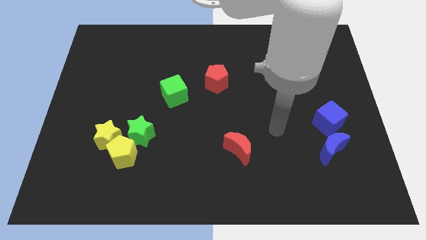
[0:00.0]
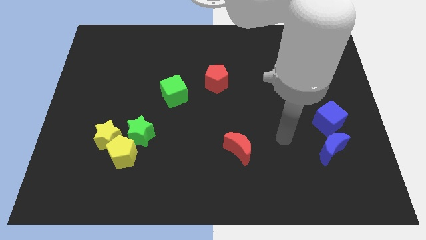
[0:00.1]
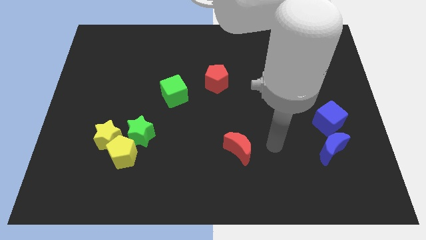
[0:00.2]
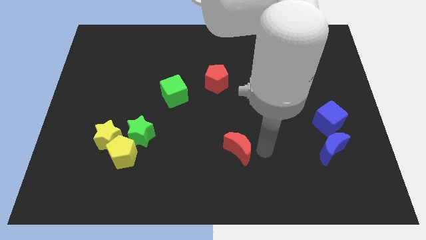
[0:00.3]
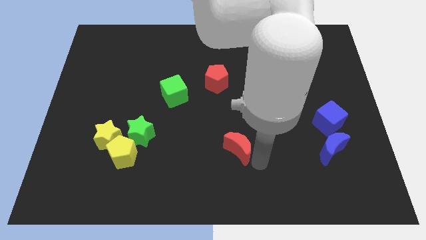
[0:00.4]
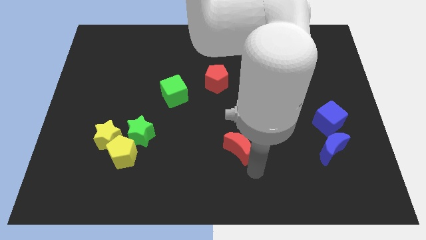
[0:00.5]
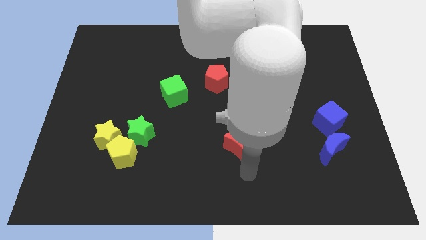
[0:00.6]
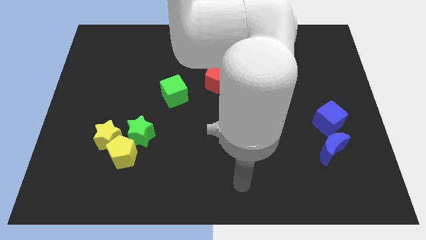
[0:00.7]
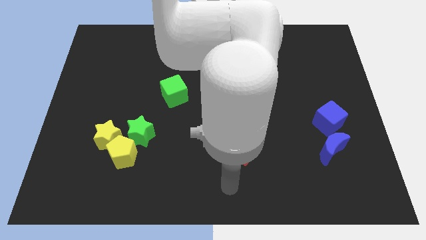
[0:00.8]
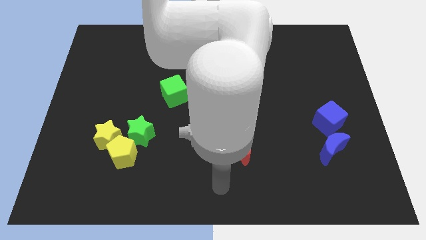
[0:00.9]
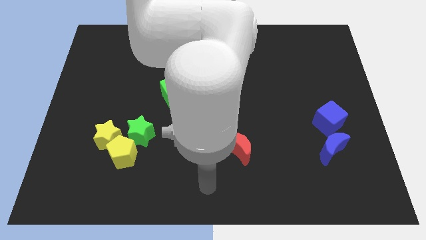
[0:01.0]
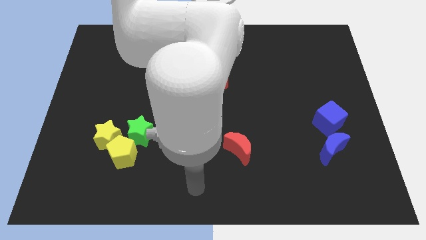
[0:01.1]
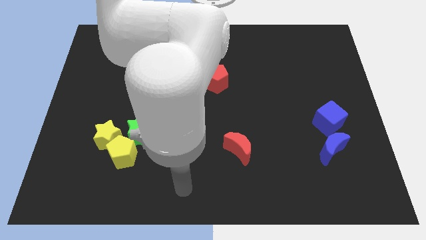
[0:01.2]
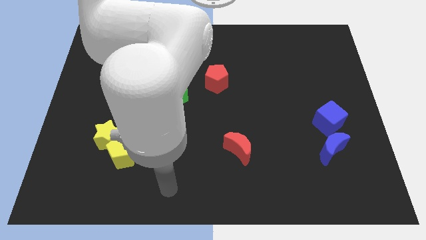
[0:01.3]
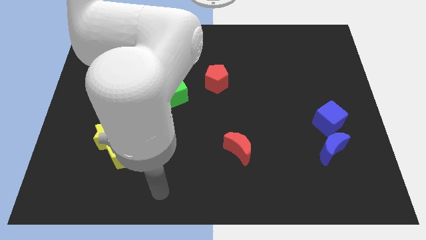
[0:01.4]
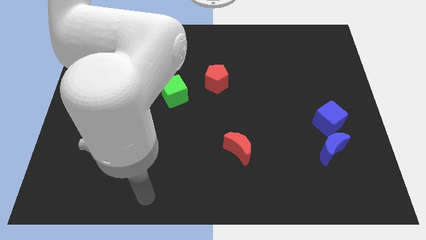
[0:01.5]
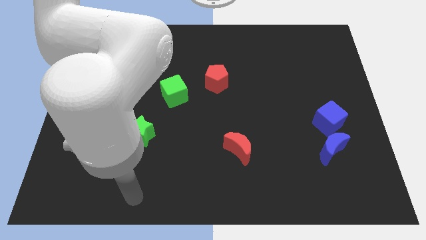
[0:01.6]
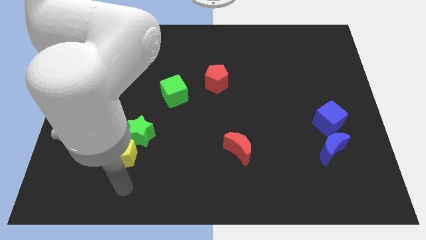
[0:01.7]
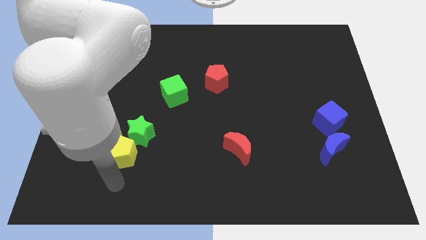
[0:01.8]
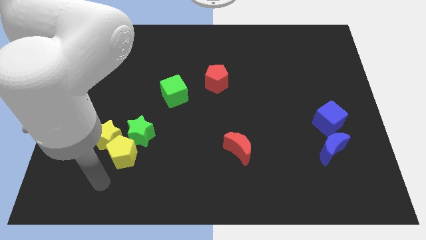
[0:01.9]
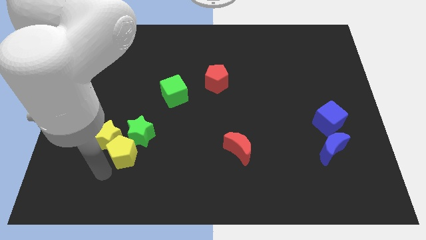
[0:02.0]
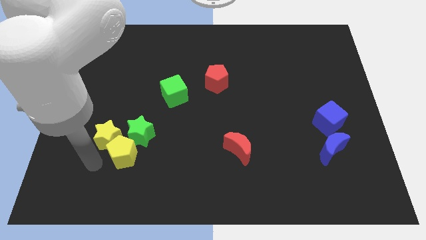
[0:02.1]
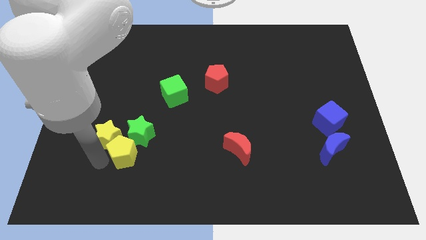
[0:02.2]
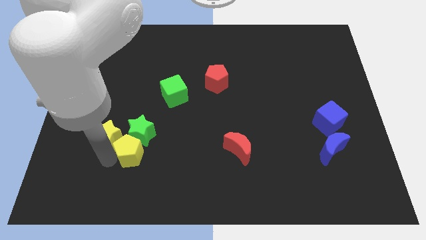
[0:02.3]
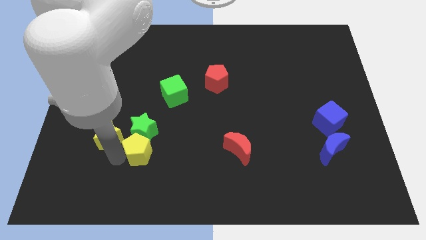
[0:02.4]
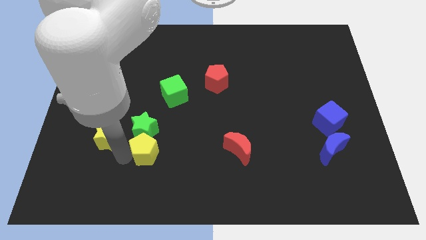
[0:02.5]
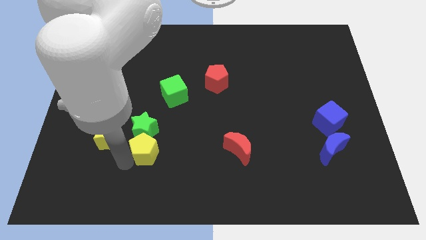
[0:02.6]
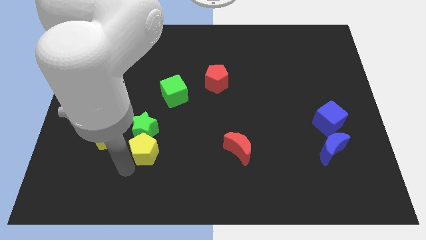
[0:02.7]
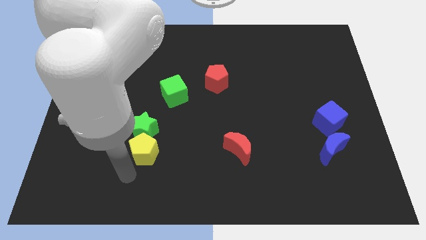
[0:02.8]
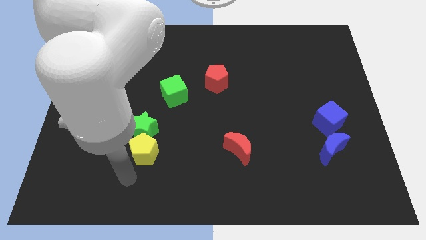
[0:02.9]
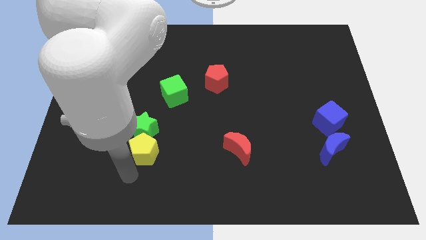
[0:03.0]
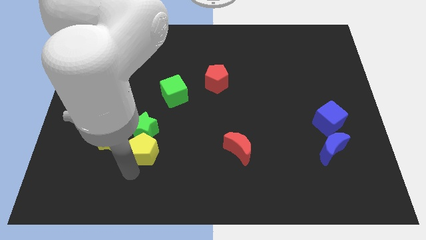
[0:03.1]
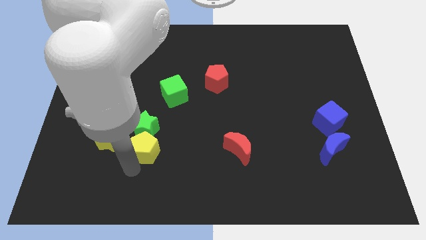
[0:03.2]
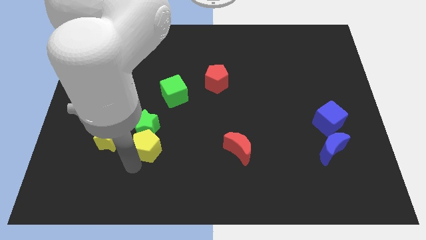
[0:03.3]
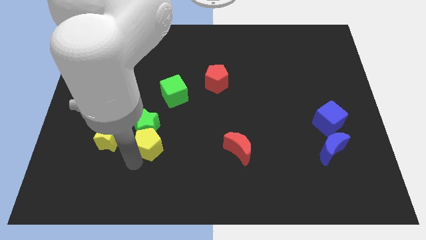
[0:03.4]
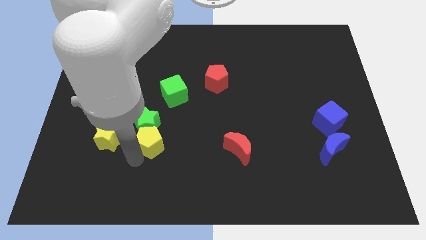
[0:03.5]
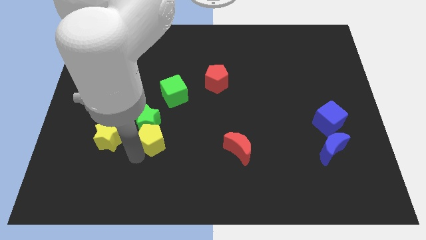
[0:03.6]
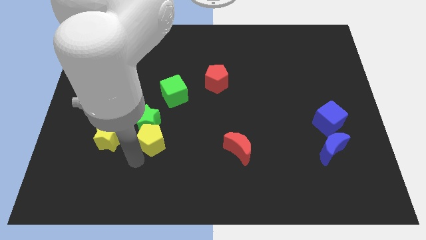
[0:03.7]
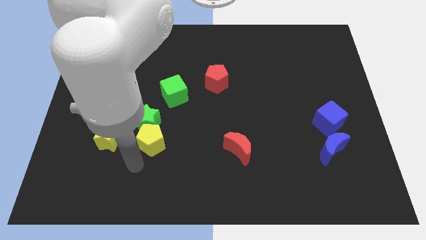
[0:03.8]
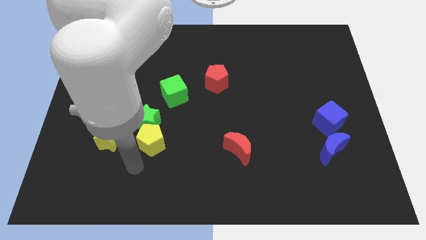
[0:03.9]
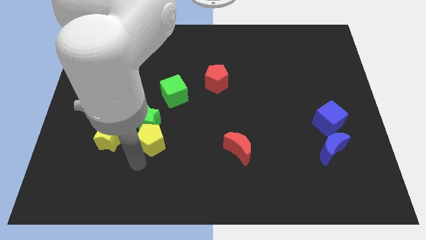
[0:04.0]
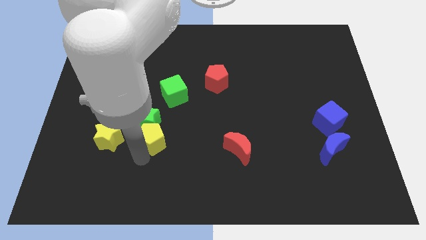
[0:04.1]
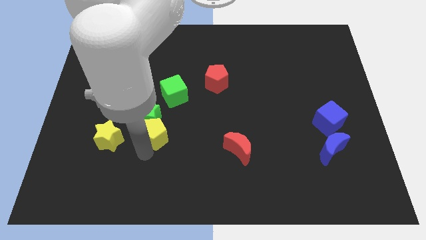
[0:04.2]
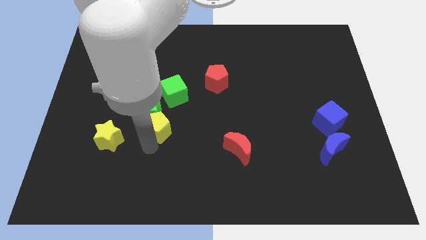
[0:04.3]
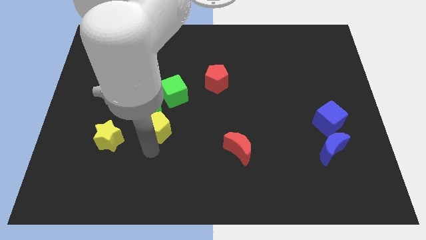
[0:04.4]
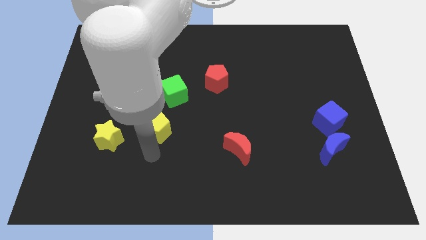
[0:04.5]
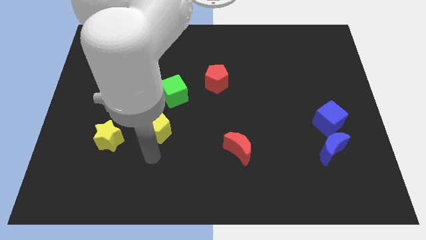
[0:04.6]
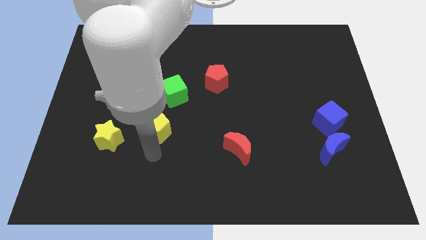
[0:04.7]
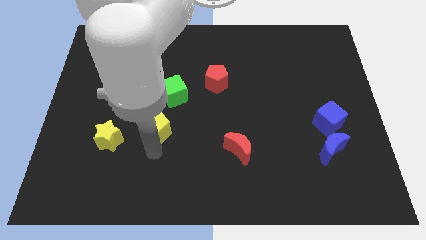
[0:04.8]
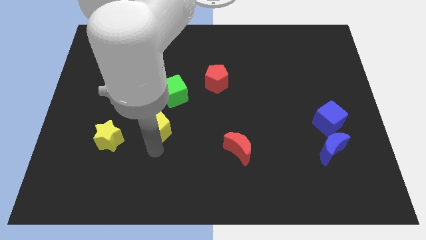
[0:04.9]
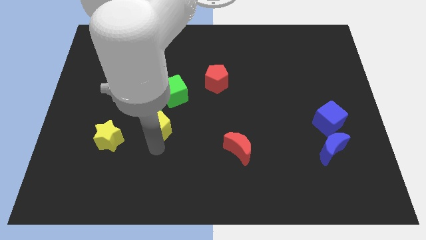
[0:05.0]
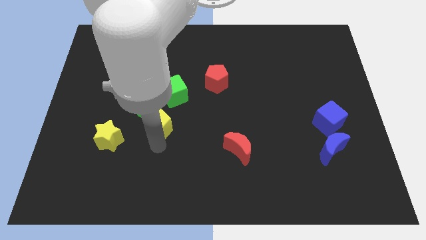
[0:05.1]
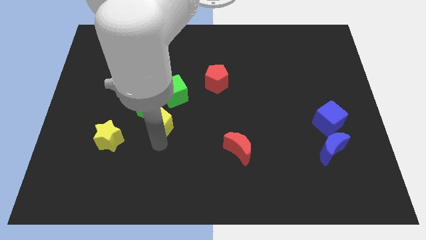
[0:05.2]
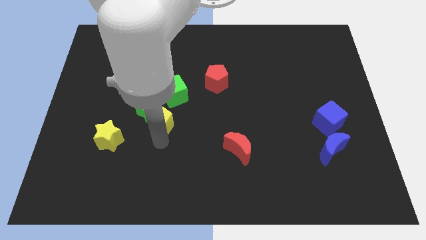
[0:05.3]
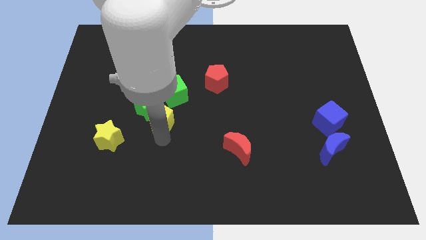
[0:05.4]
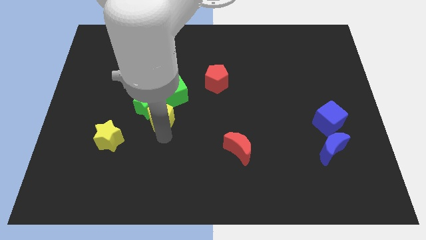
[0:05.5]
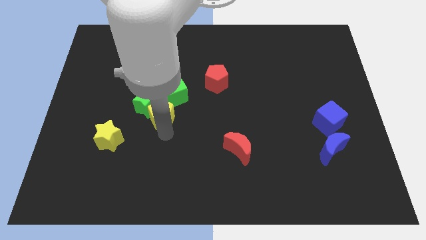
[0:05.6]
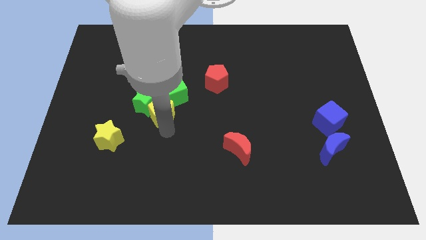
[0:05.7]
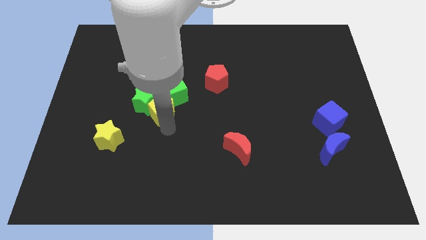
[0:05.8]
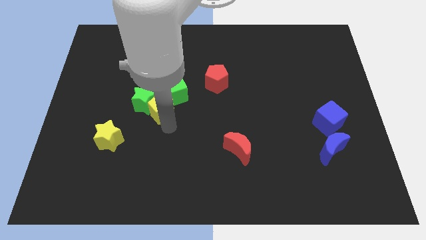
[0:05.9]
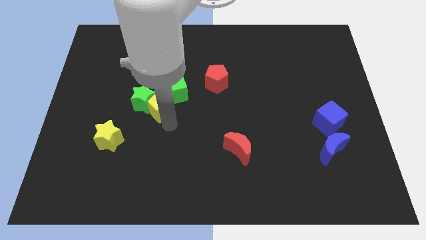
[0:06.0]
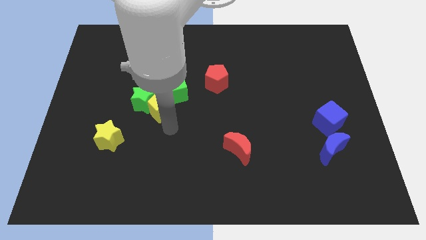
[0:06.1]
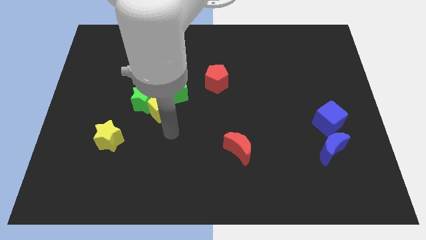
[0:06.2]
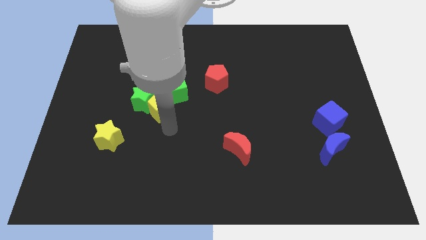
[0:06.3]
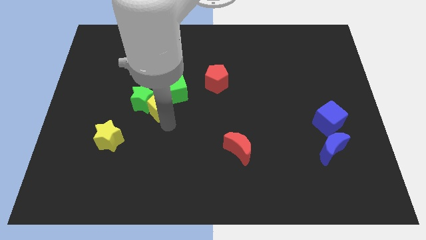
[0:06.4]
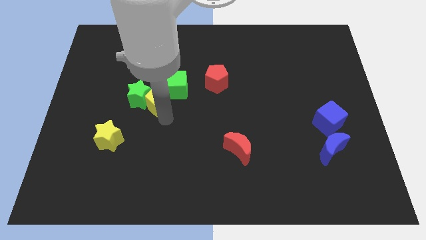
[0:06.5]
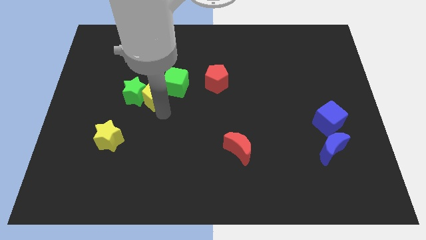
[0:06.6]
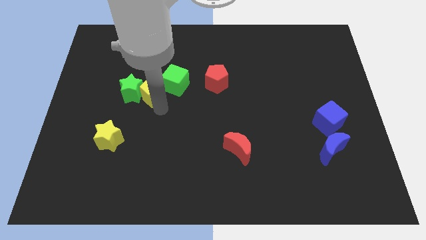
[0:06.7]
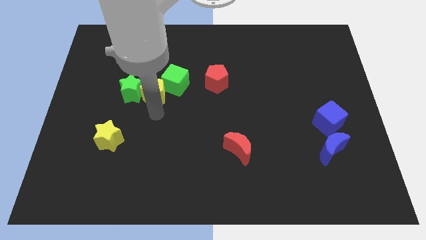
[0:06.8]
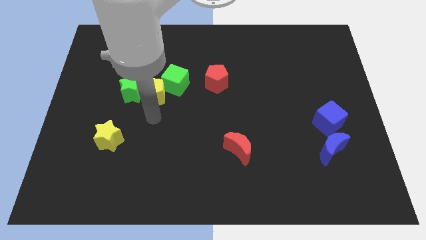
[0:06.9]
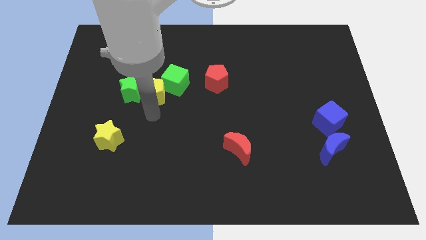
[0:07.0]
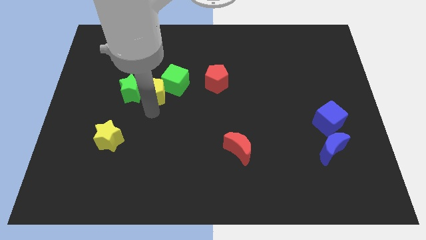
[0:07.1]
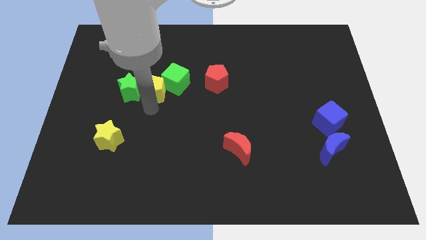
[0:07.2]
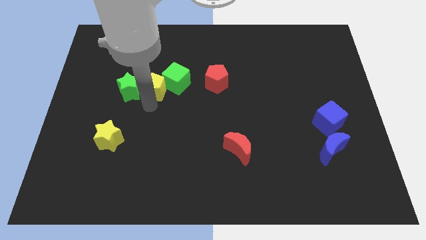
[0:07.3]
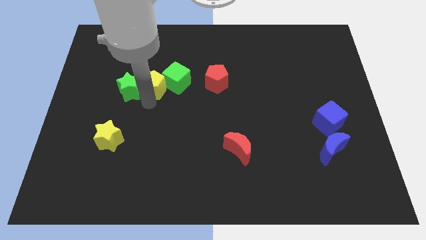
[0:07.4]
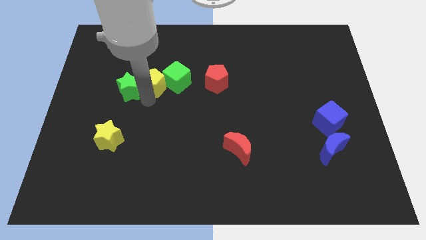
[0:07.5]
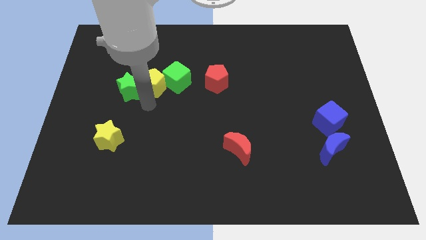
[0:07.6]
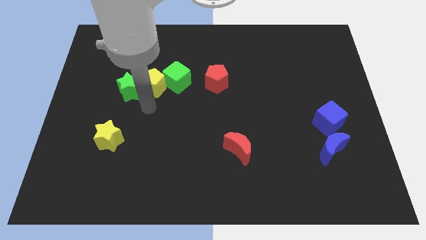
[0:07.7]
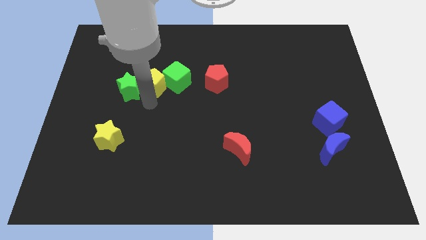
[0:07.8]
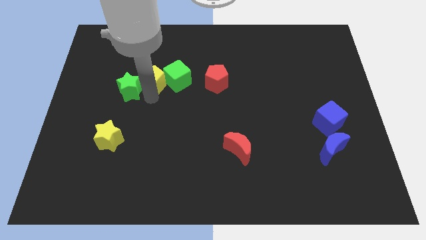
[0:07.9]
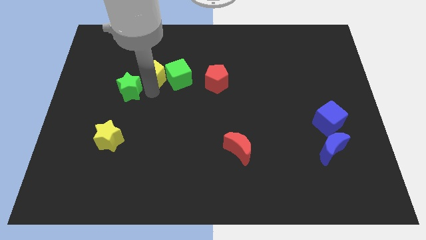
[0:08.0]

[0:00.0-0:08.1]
push the yellow pentagon to the top left of the green cube
